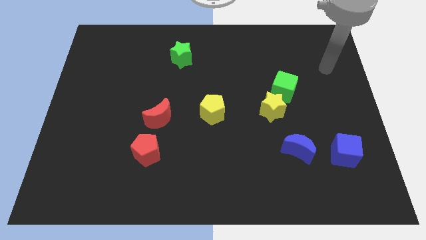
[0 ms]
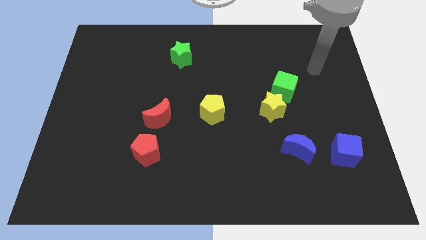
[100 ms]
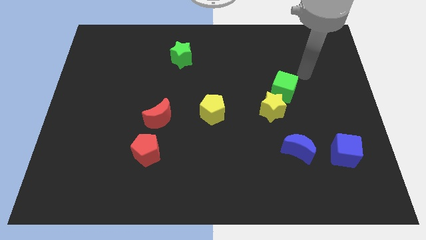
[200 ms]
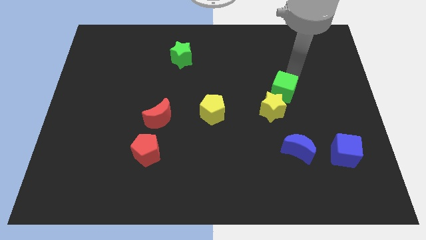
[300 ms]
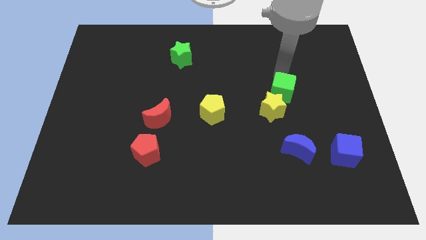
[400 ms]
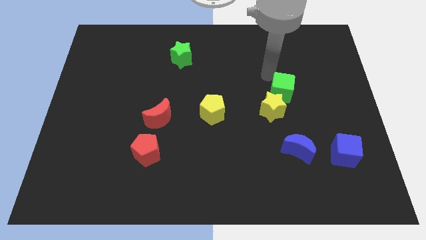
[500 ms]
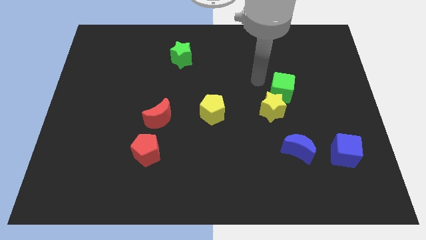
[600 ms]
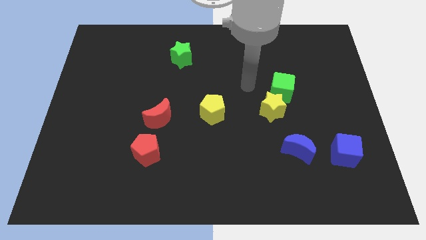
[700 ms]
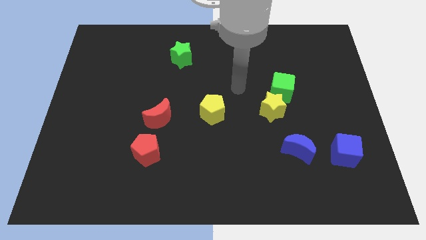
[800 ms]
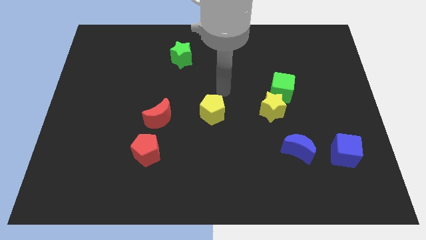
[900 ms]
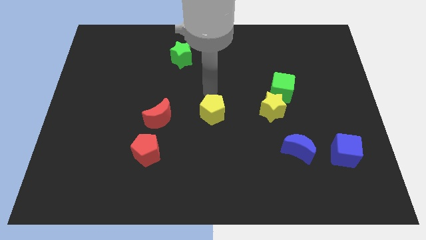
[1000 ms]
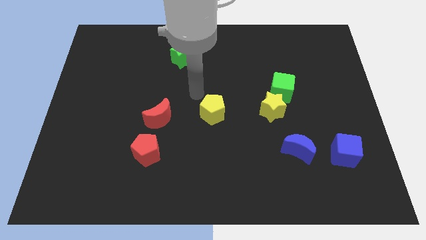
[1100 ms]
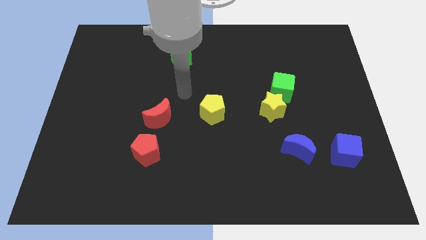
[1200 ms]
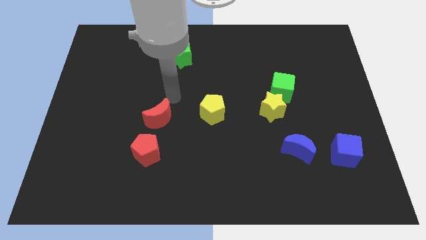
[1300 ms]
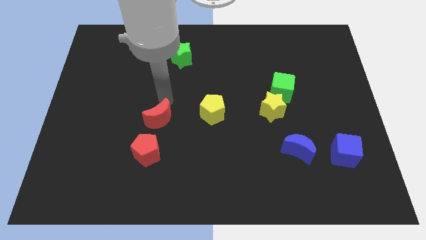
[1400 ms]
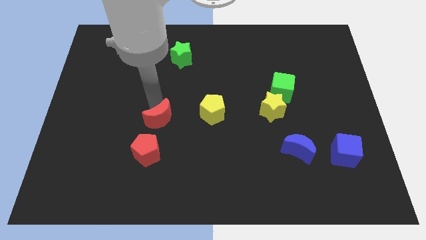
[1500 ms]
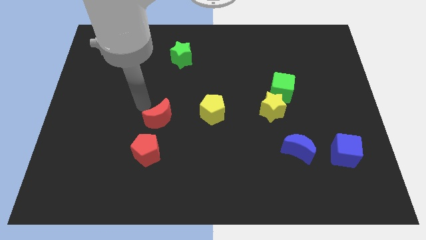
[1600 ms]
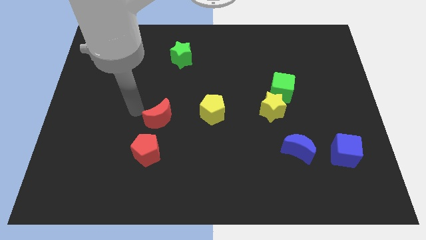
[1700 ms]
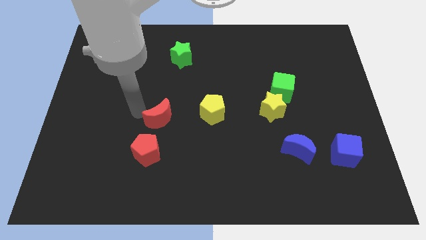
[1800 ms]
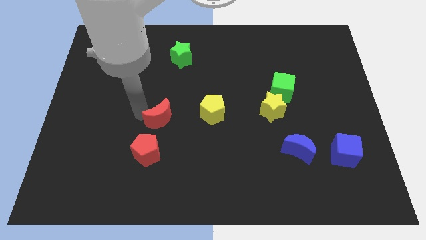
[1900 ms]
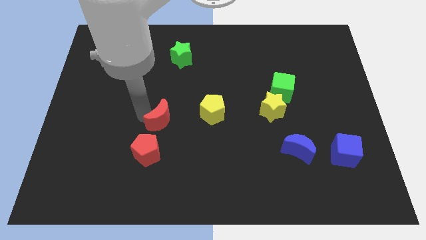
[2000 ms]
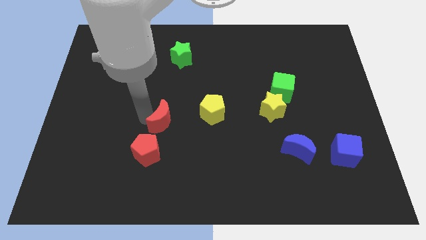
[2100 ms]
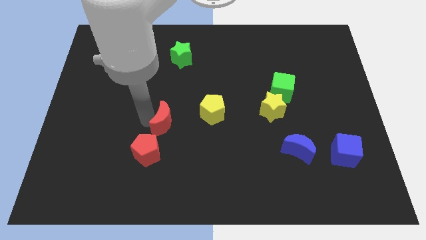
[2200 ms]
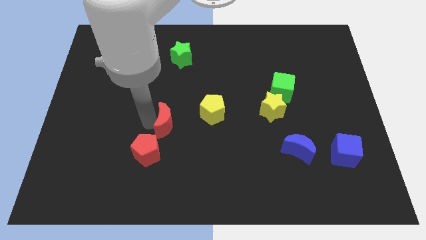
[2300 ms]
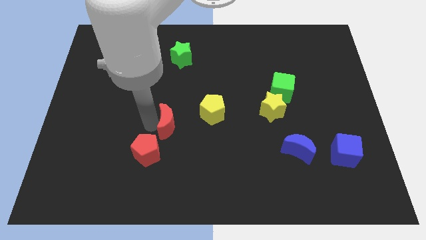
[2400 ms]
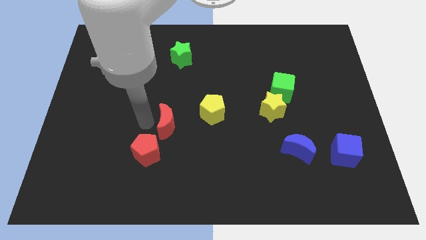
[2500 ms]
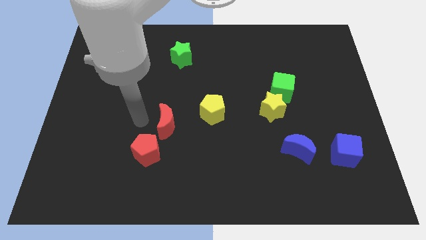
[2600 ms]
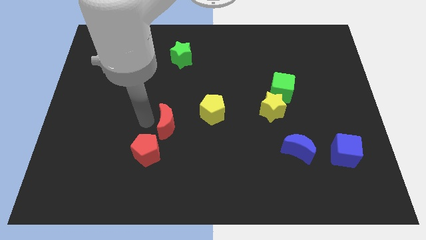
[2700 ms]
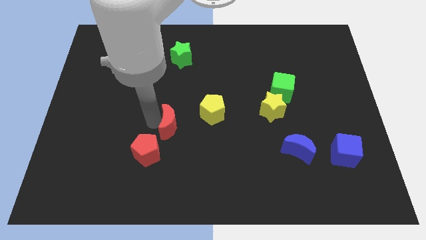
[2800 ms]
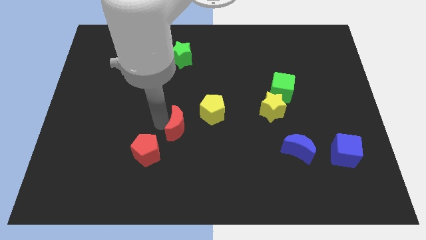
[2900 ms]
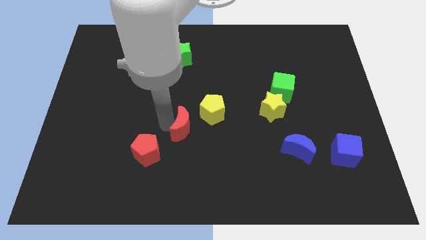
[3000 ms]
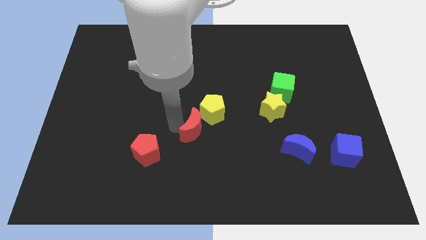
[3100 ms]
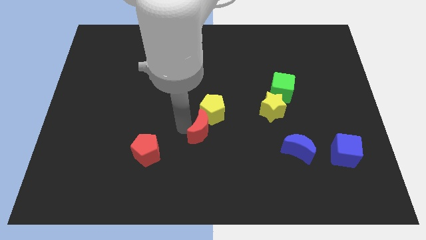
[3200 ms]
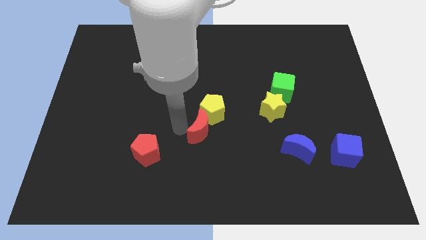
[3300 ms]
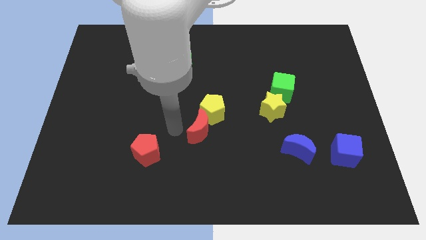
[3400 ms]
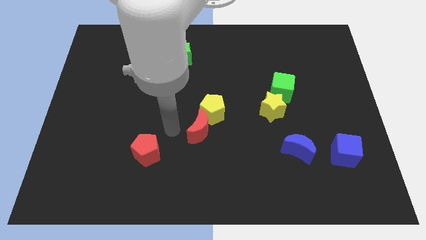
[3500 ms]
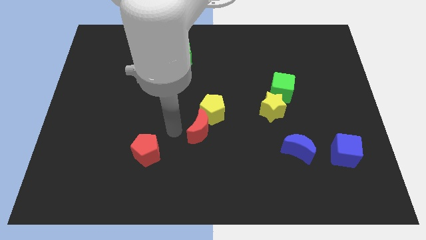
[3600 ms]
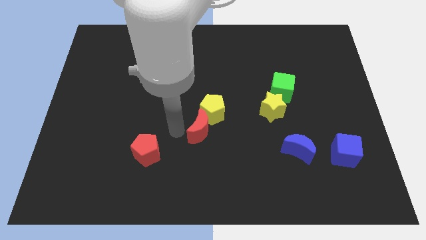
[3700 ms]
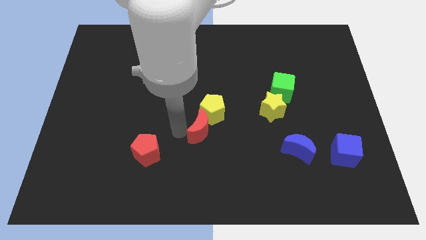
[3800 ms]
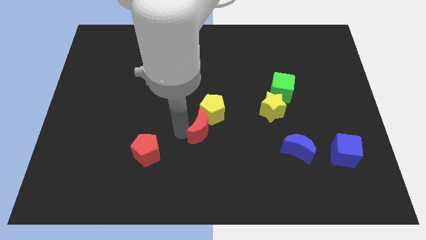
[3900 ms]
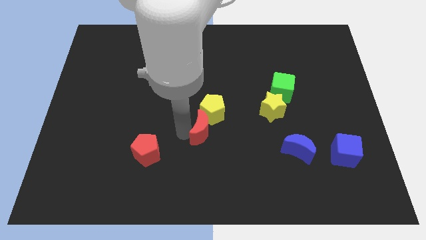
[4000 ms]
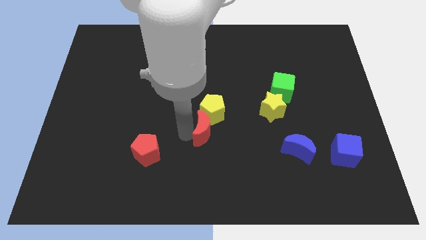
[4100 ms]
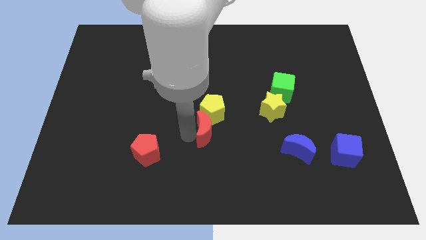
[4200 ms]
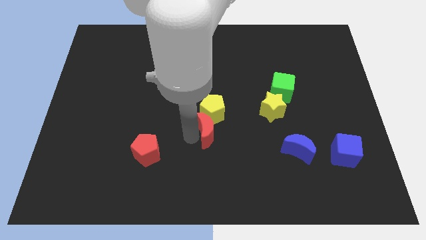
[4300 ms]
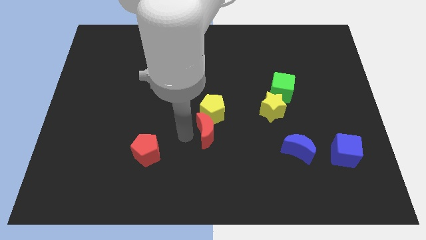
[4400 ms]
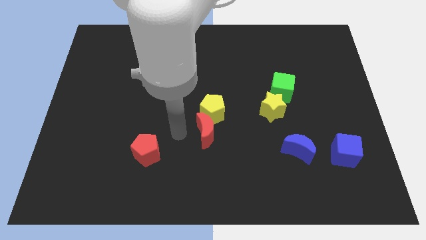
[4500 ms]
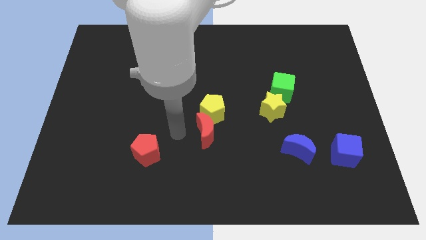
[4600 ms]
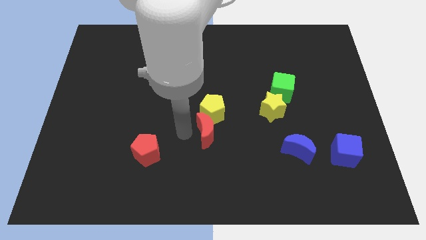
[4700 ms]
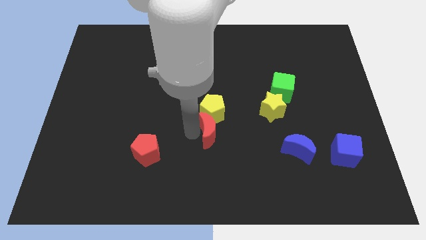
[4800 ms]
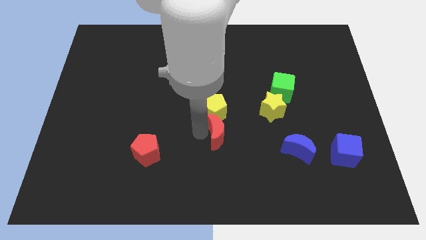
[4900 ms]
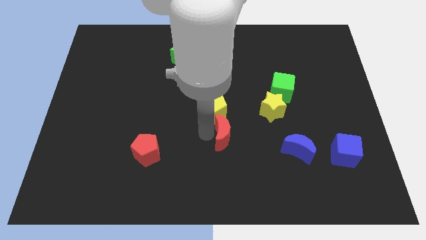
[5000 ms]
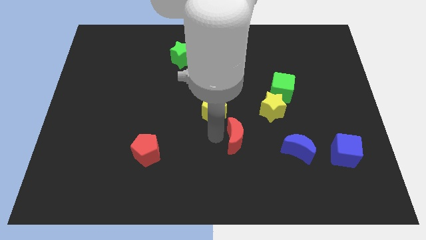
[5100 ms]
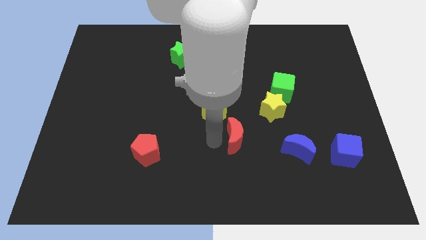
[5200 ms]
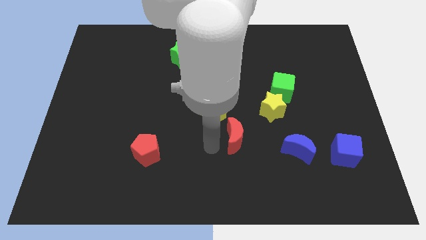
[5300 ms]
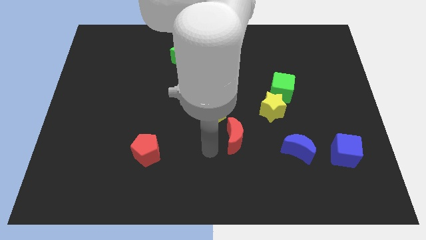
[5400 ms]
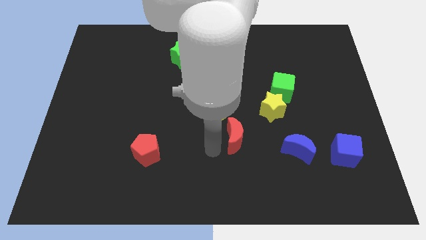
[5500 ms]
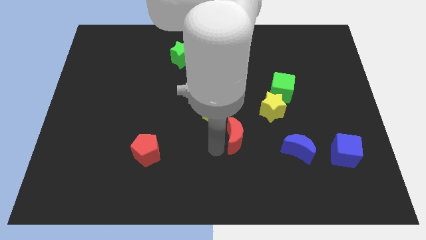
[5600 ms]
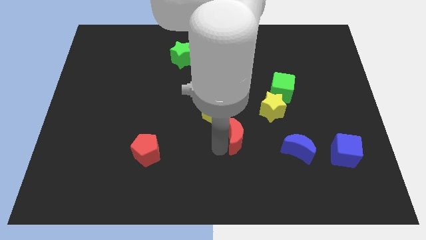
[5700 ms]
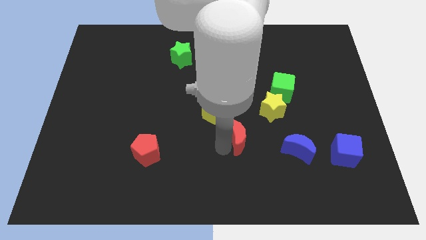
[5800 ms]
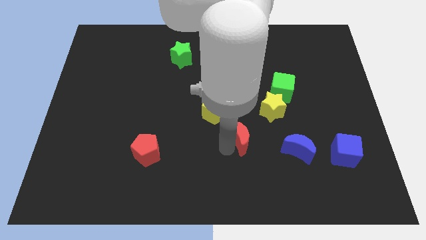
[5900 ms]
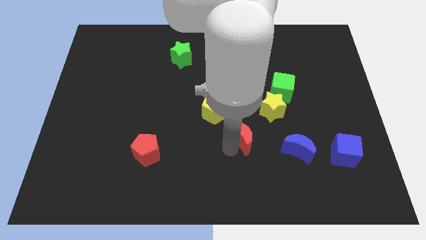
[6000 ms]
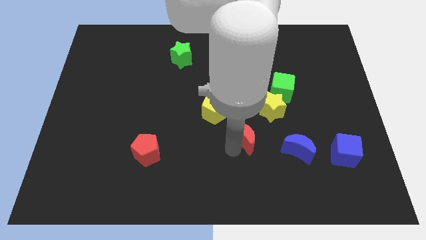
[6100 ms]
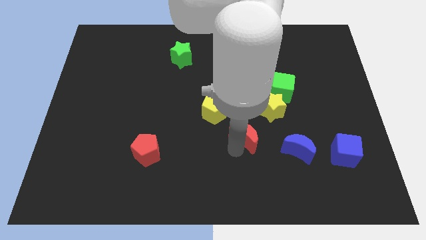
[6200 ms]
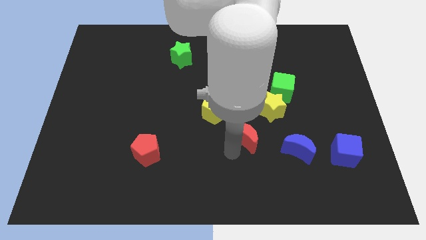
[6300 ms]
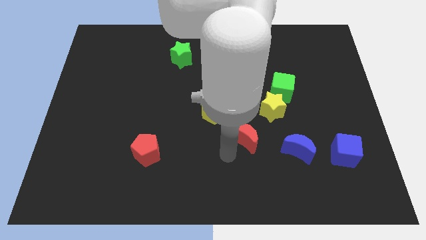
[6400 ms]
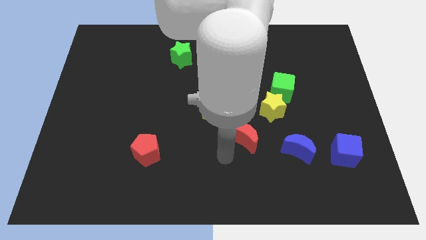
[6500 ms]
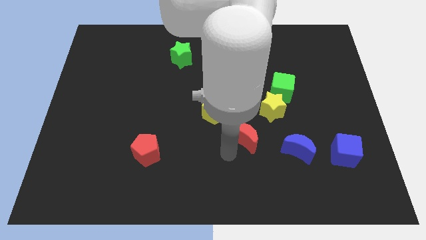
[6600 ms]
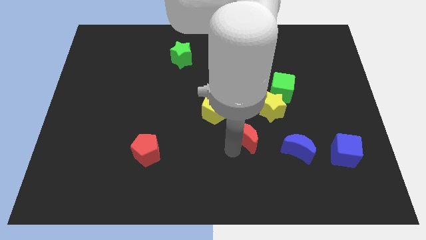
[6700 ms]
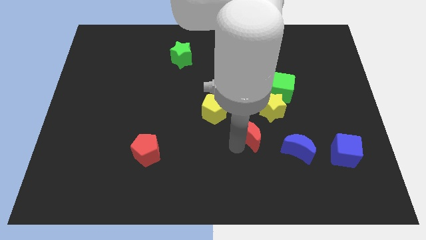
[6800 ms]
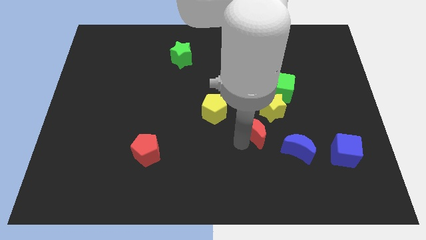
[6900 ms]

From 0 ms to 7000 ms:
move the red moon to the right

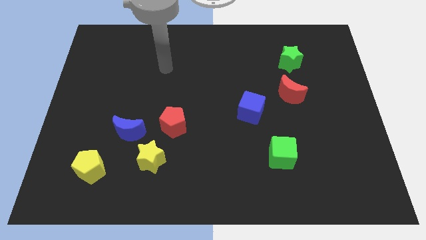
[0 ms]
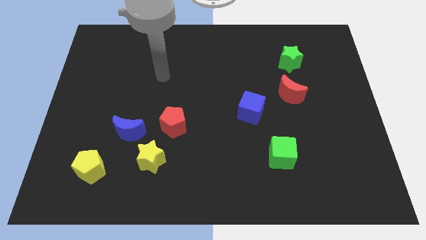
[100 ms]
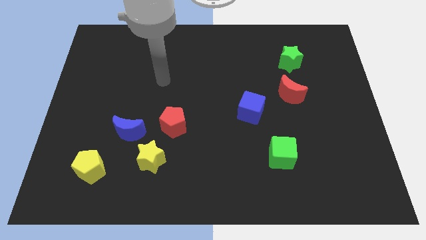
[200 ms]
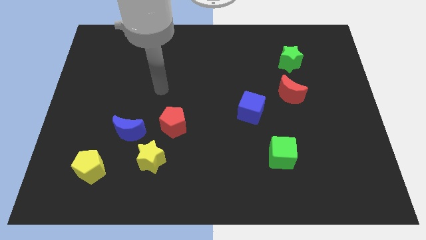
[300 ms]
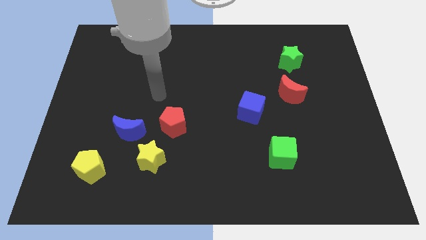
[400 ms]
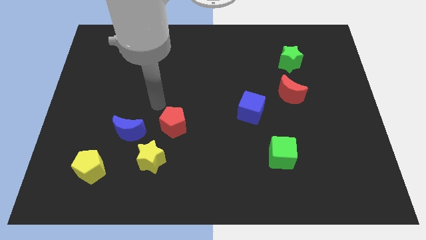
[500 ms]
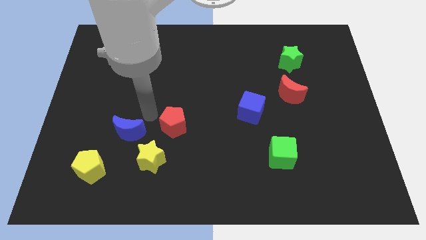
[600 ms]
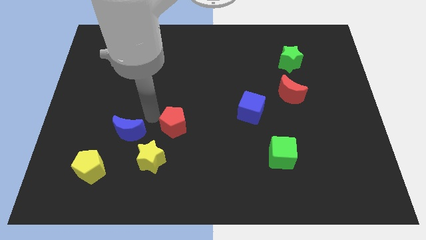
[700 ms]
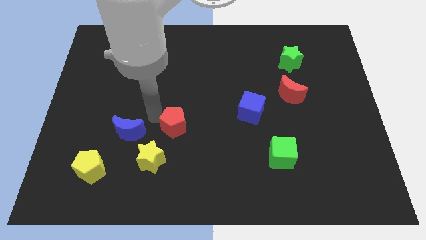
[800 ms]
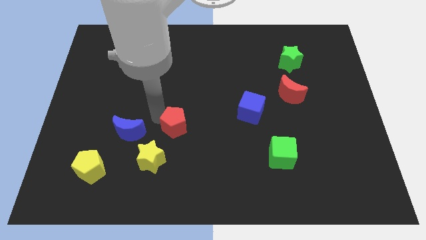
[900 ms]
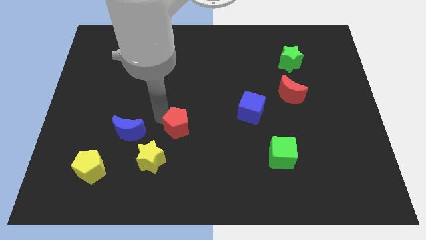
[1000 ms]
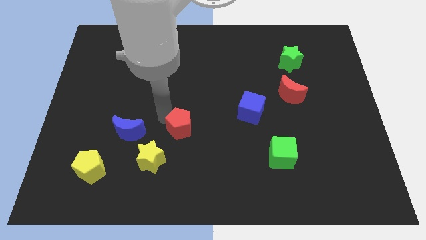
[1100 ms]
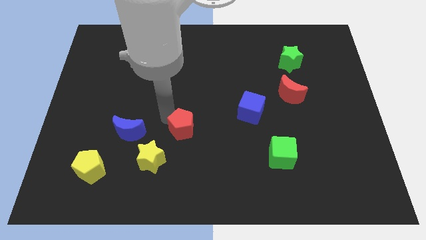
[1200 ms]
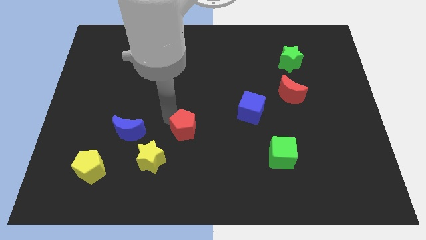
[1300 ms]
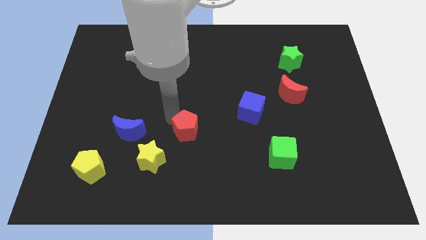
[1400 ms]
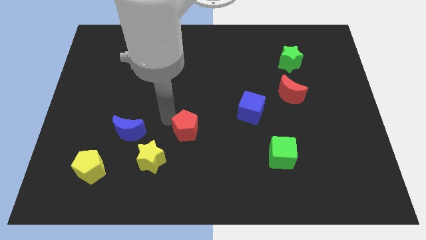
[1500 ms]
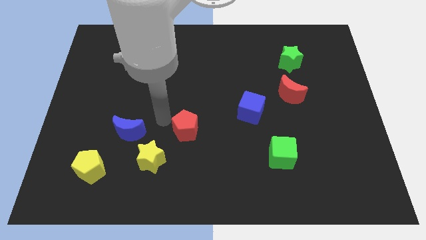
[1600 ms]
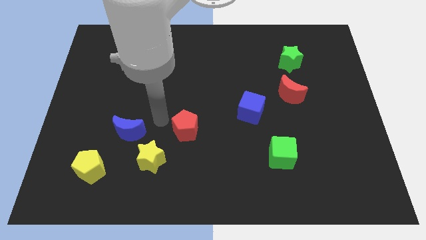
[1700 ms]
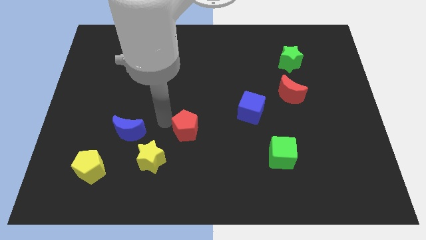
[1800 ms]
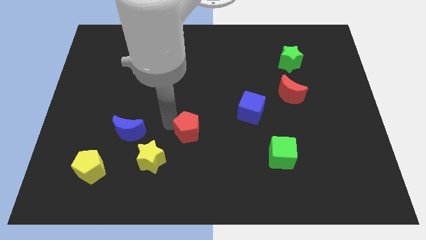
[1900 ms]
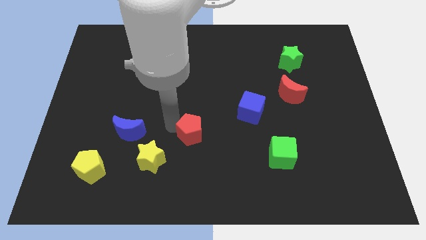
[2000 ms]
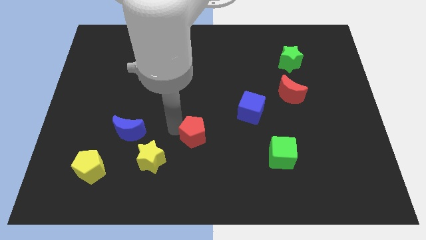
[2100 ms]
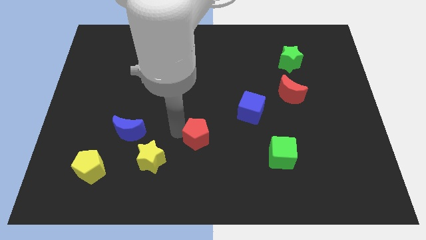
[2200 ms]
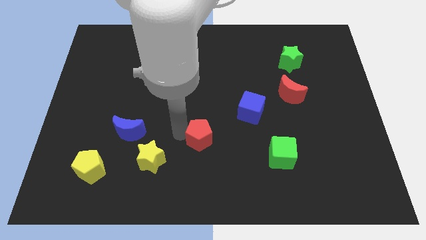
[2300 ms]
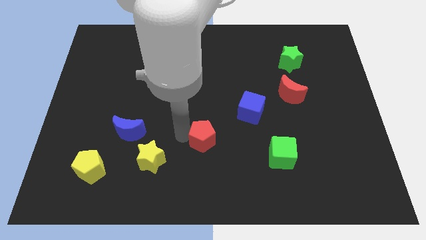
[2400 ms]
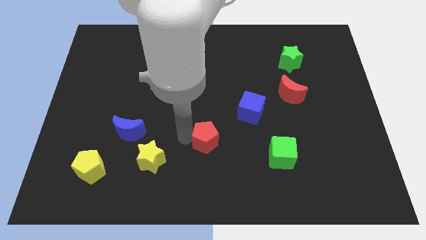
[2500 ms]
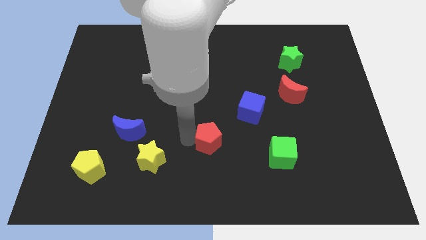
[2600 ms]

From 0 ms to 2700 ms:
slightly move the red pentagon right
